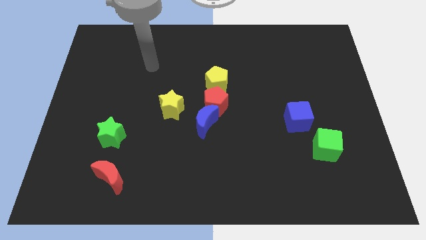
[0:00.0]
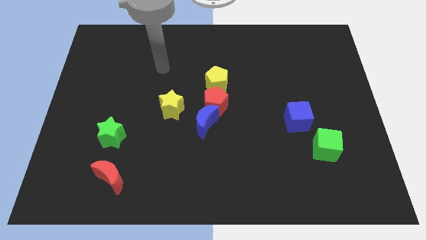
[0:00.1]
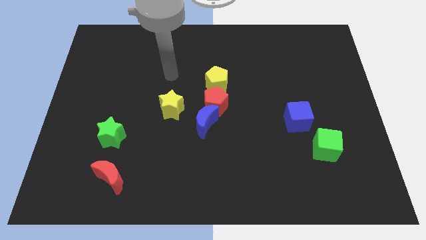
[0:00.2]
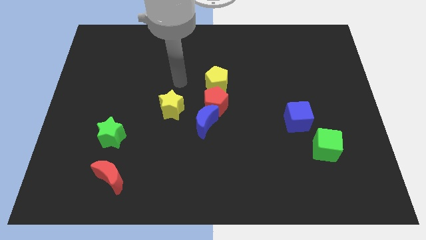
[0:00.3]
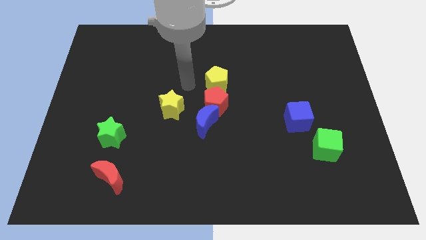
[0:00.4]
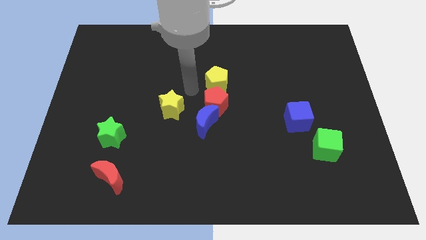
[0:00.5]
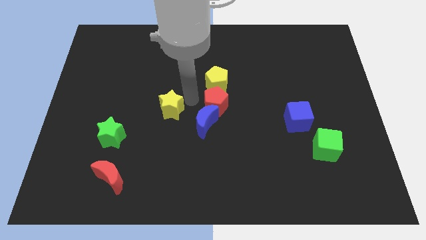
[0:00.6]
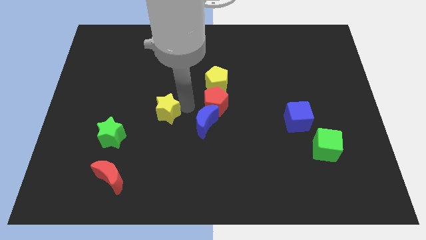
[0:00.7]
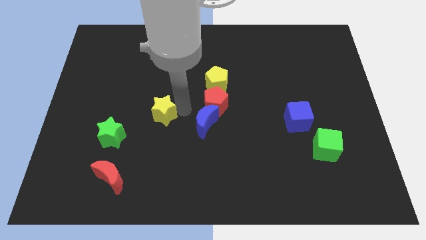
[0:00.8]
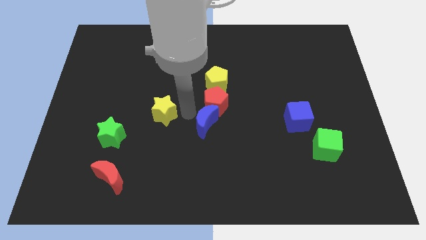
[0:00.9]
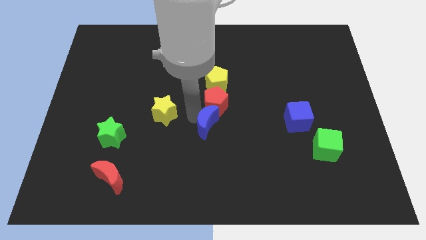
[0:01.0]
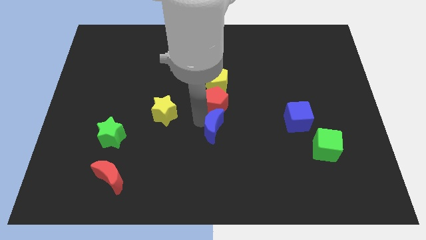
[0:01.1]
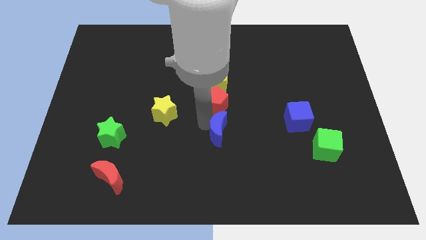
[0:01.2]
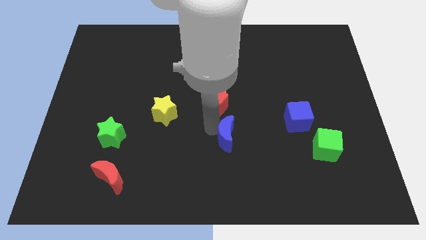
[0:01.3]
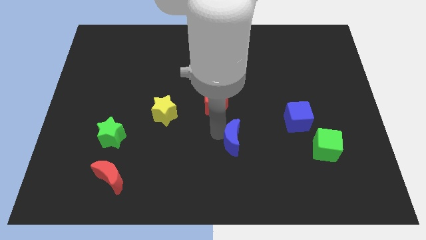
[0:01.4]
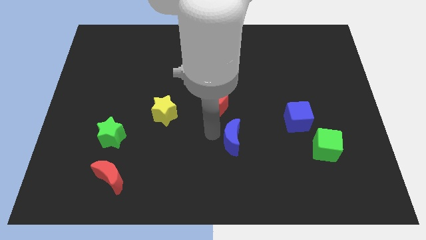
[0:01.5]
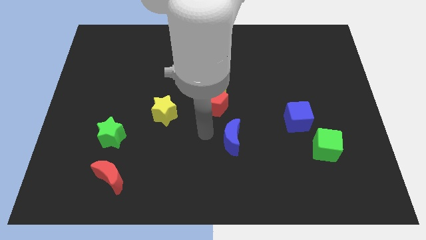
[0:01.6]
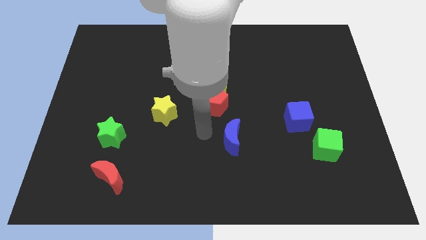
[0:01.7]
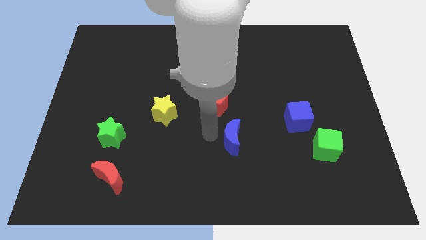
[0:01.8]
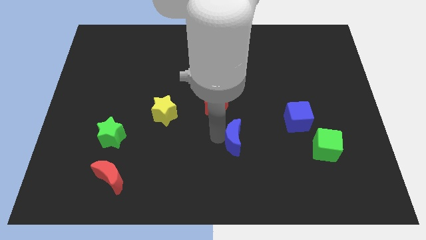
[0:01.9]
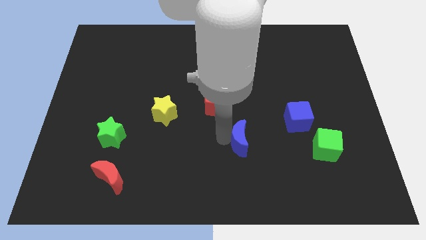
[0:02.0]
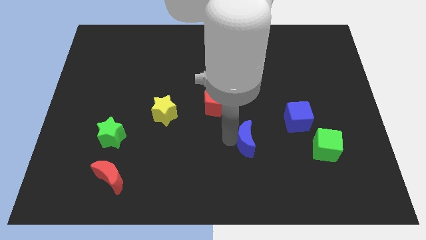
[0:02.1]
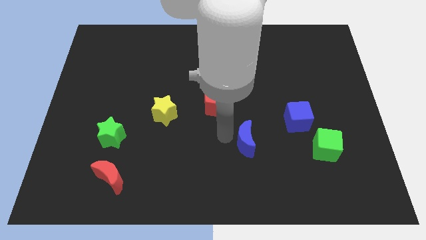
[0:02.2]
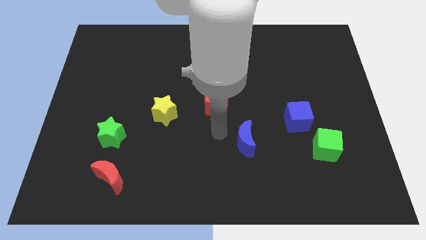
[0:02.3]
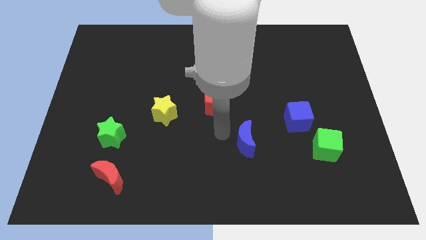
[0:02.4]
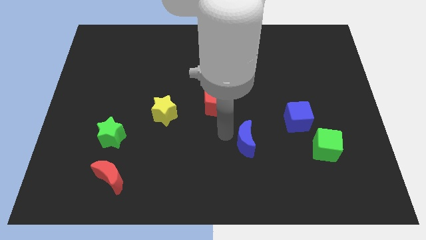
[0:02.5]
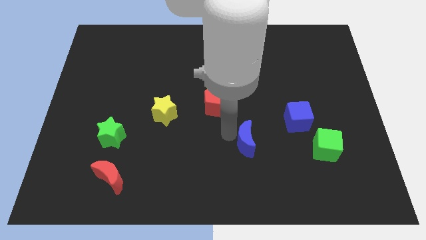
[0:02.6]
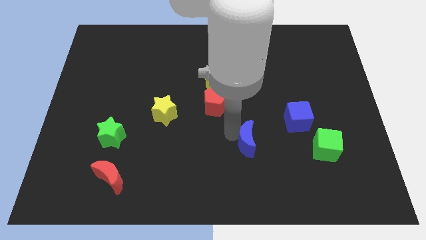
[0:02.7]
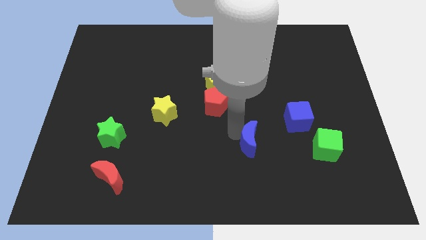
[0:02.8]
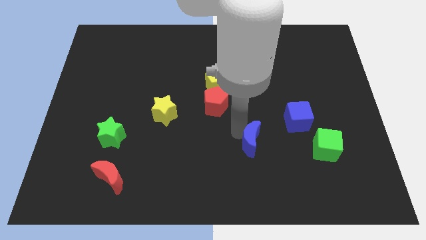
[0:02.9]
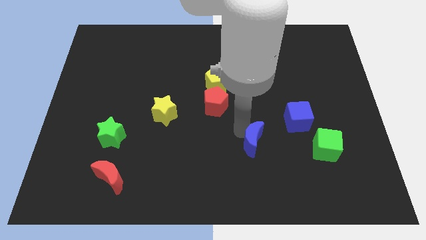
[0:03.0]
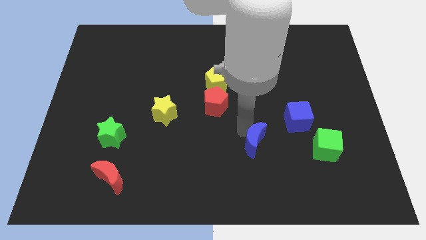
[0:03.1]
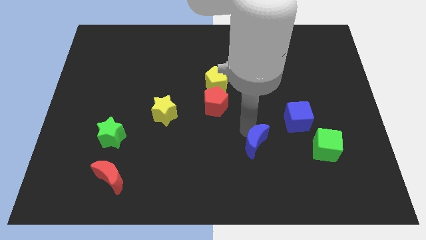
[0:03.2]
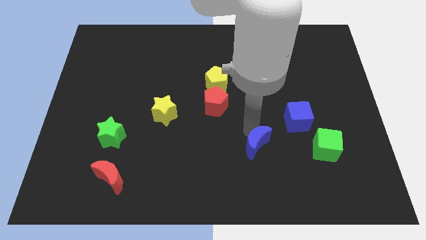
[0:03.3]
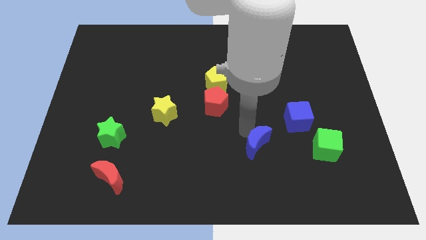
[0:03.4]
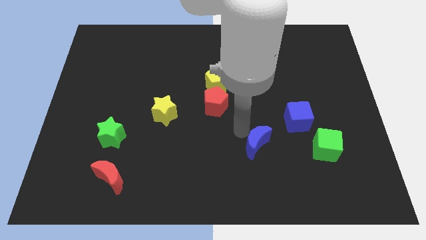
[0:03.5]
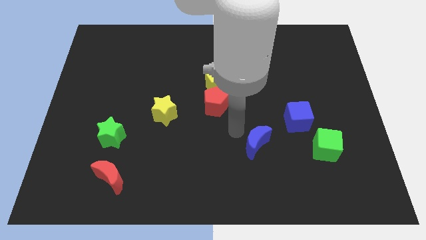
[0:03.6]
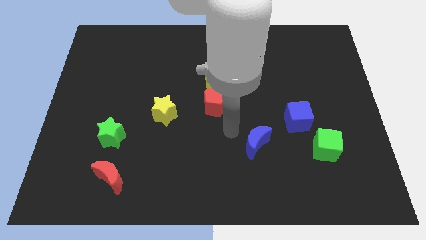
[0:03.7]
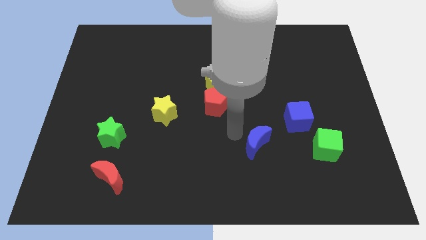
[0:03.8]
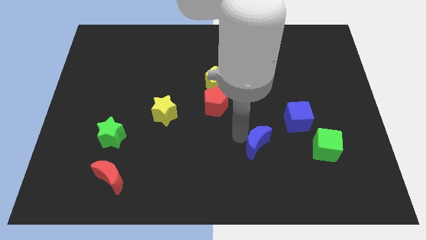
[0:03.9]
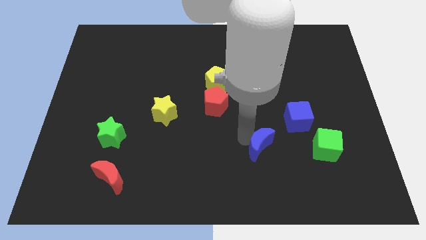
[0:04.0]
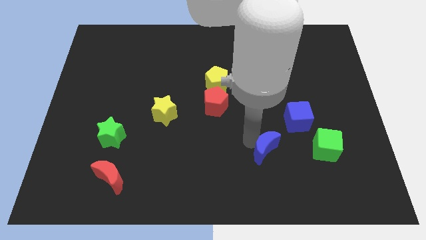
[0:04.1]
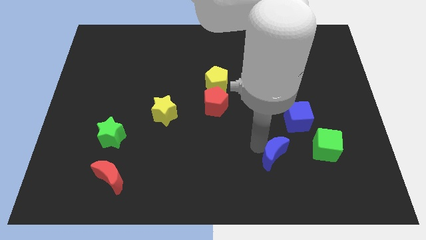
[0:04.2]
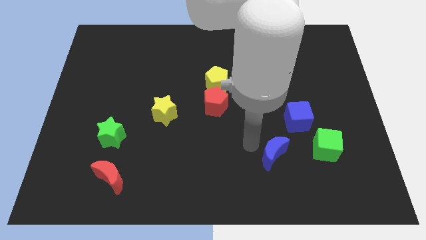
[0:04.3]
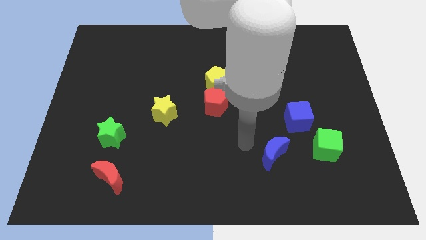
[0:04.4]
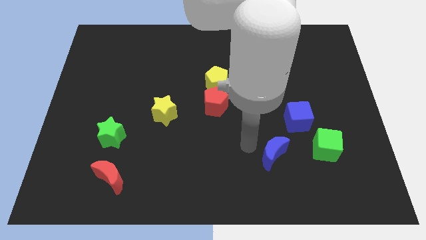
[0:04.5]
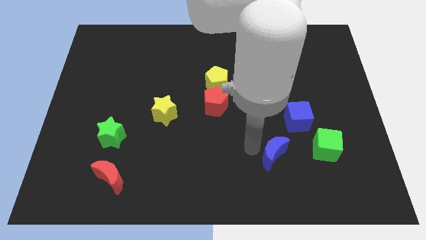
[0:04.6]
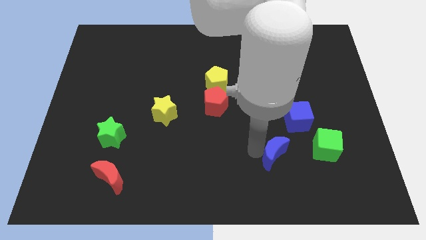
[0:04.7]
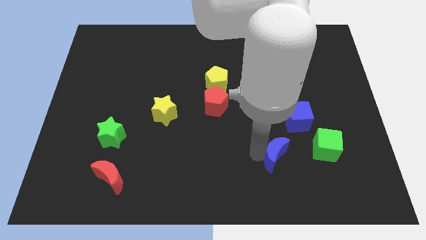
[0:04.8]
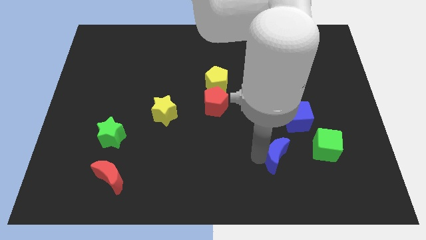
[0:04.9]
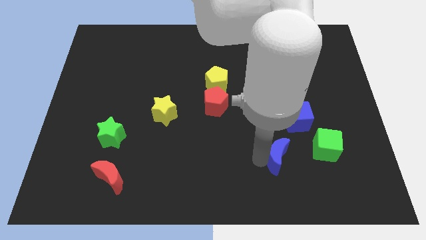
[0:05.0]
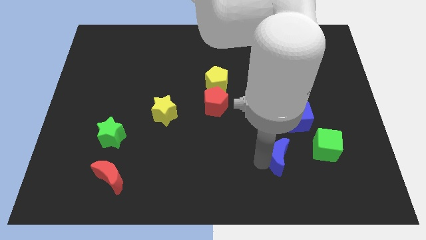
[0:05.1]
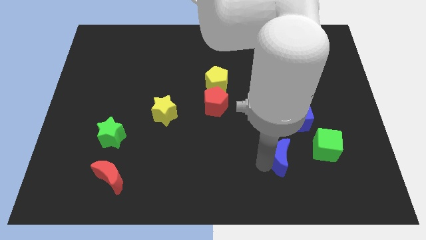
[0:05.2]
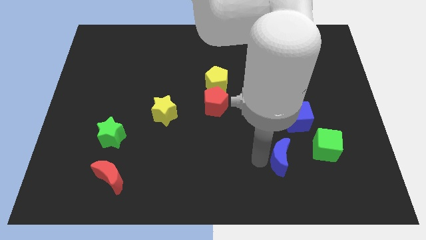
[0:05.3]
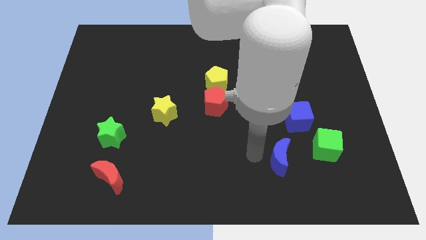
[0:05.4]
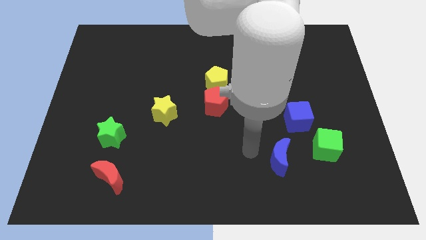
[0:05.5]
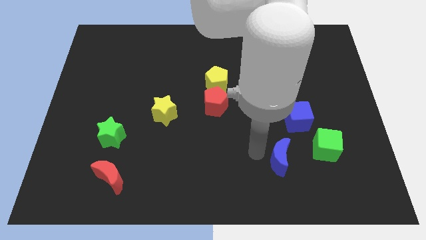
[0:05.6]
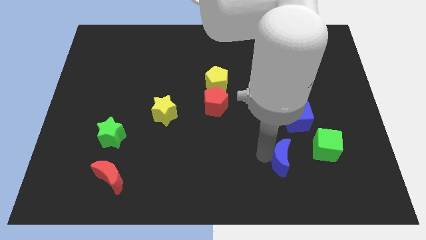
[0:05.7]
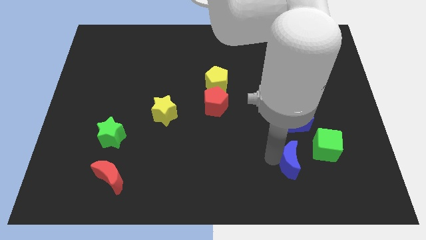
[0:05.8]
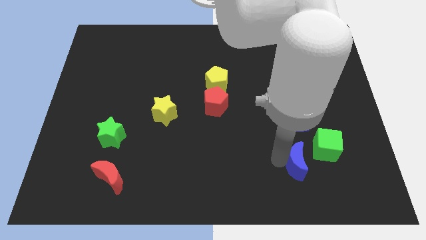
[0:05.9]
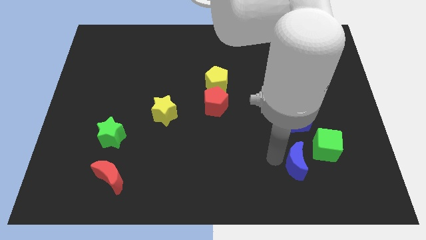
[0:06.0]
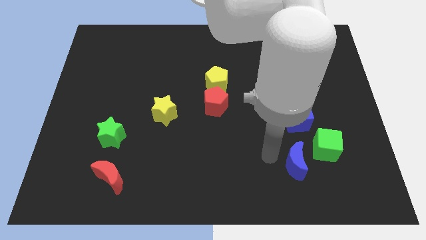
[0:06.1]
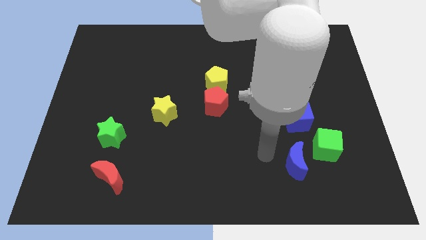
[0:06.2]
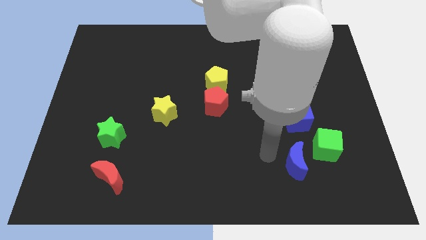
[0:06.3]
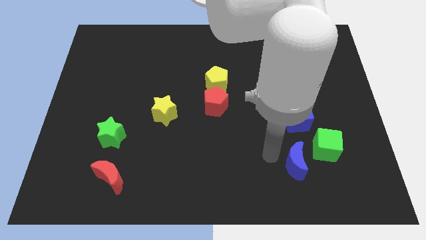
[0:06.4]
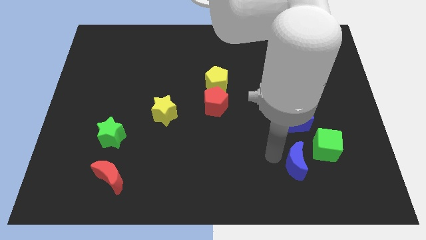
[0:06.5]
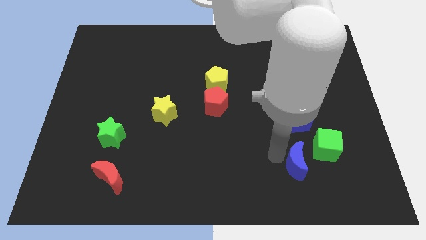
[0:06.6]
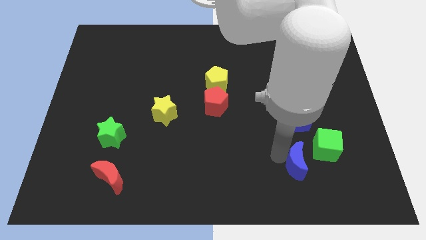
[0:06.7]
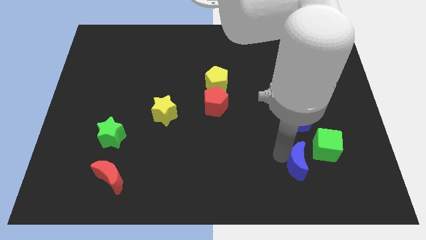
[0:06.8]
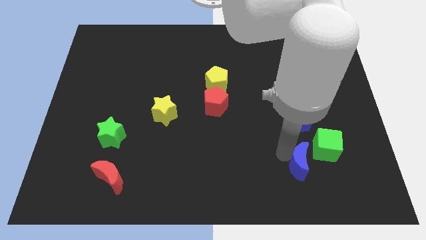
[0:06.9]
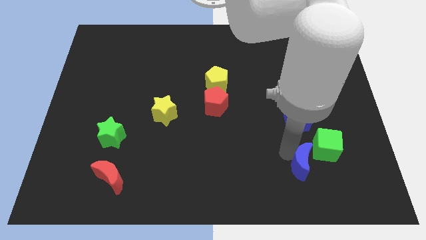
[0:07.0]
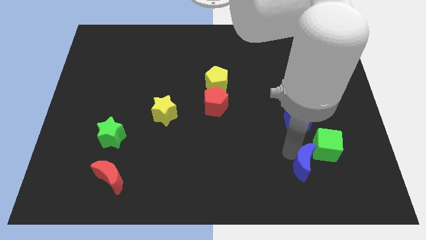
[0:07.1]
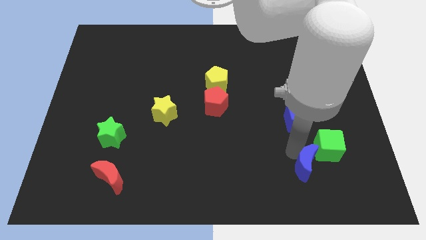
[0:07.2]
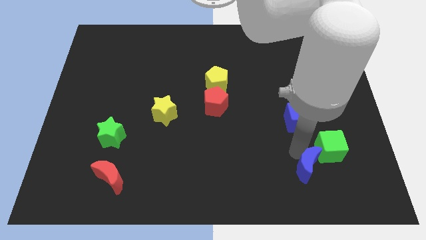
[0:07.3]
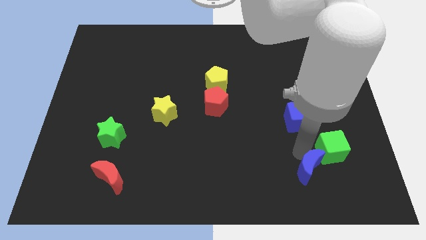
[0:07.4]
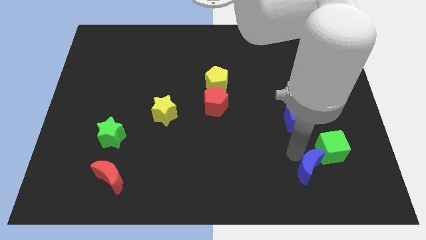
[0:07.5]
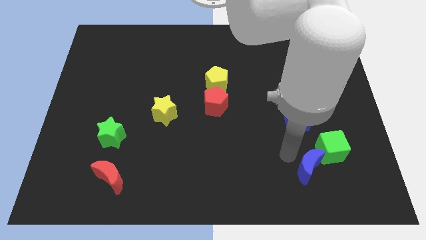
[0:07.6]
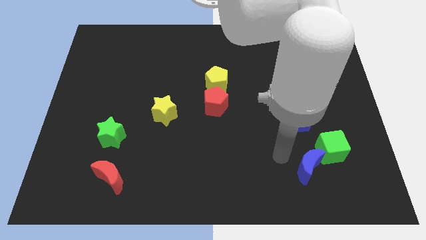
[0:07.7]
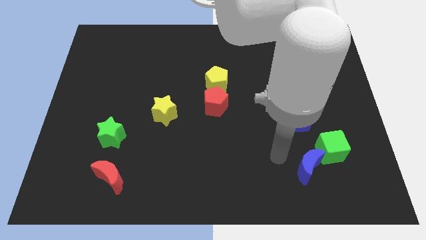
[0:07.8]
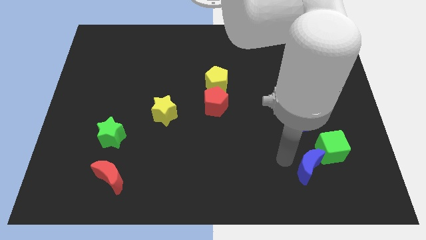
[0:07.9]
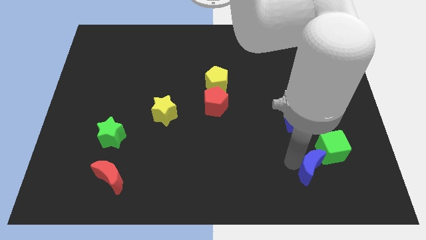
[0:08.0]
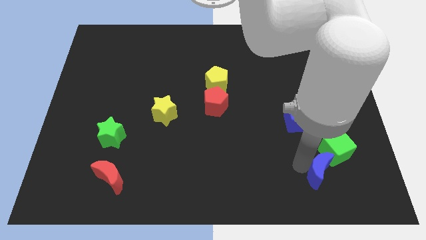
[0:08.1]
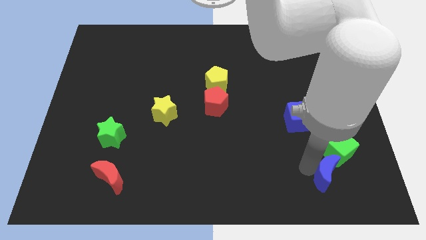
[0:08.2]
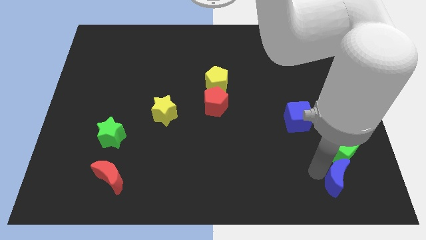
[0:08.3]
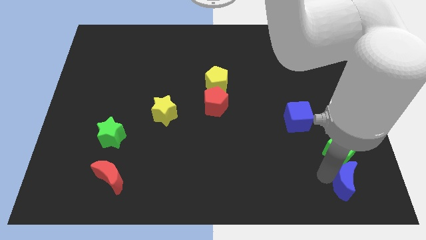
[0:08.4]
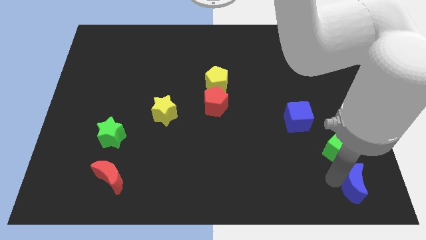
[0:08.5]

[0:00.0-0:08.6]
move the blue moon to the bottom right
